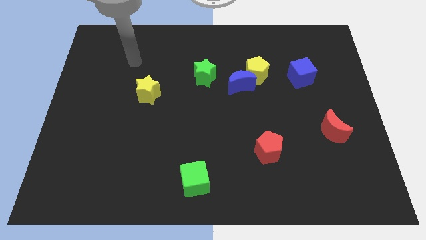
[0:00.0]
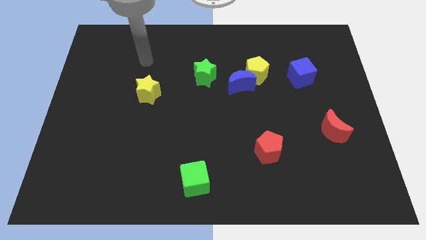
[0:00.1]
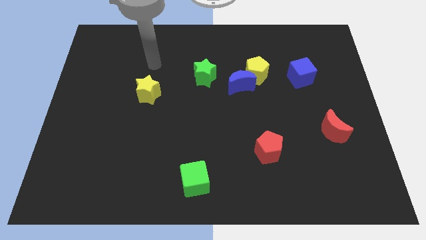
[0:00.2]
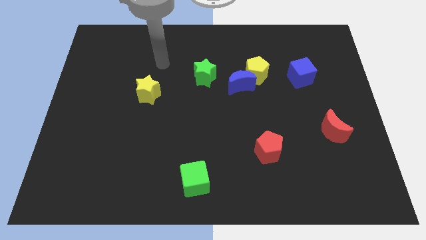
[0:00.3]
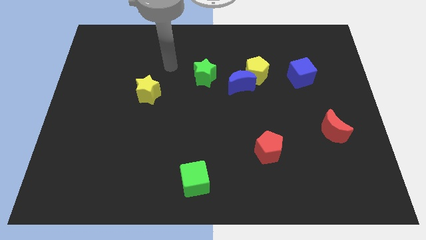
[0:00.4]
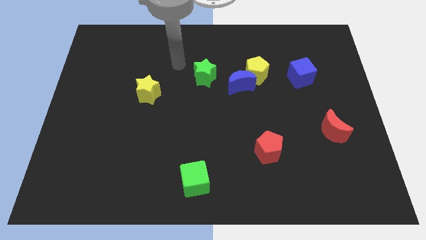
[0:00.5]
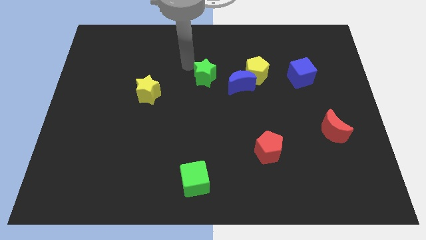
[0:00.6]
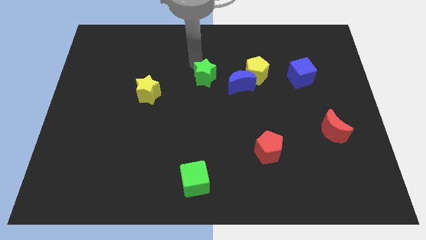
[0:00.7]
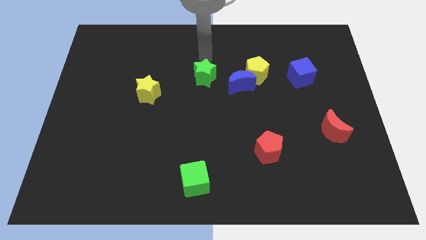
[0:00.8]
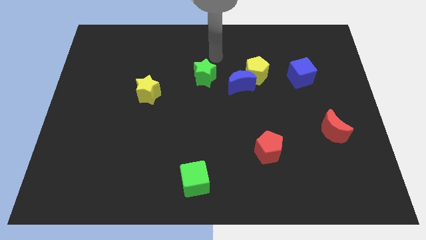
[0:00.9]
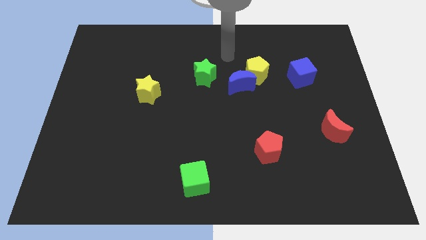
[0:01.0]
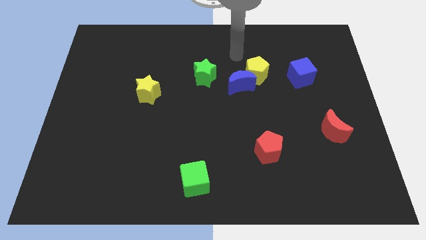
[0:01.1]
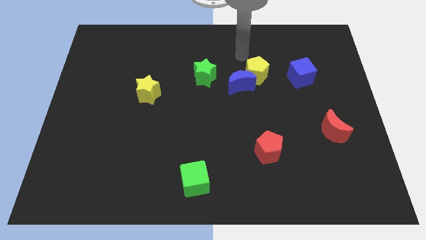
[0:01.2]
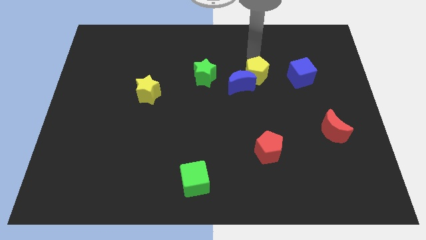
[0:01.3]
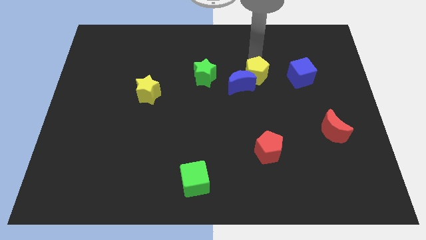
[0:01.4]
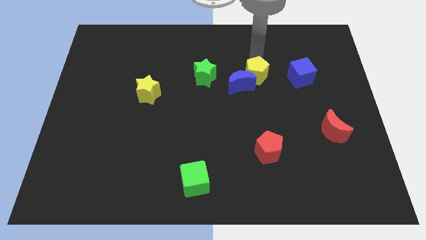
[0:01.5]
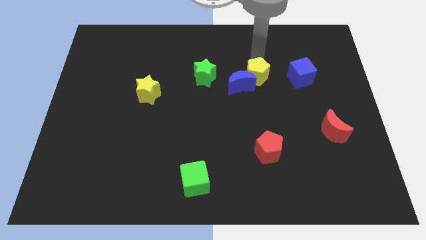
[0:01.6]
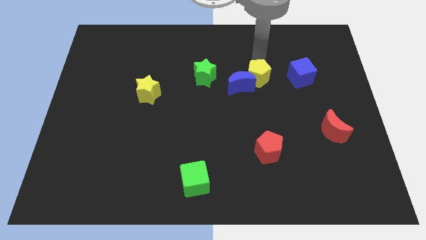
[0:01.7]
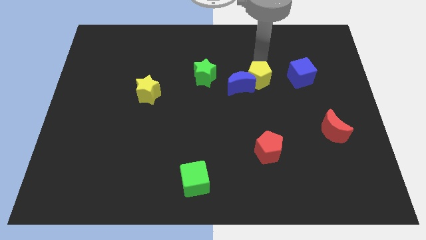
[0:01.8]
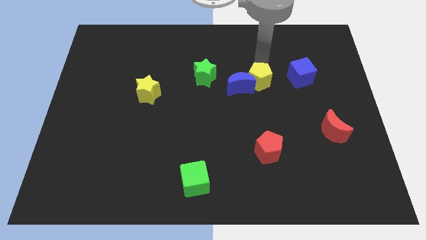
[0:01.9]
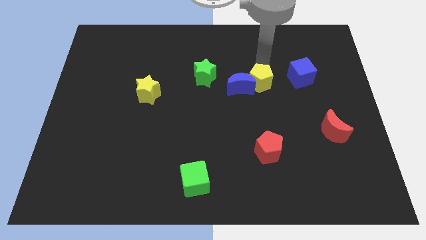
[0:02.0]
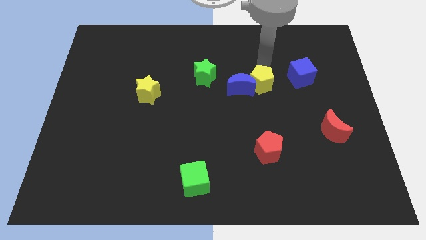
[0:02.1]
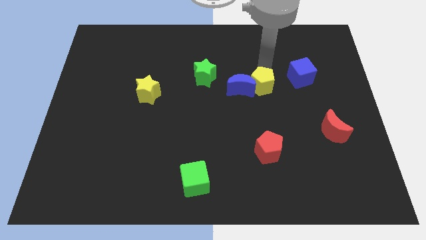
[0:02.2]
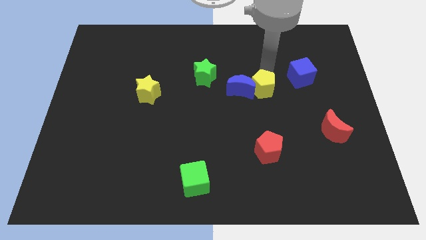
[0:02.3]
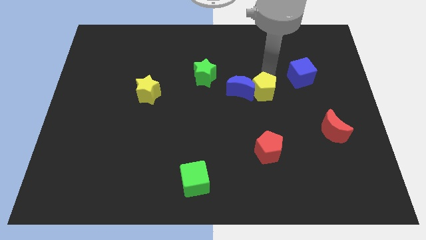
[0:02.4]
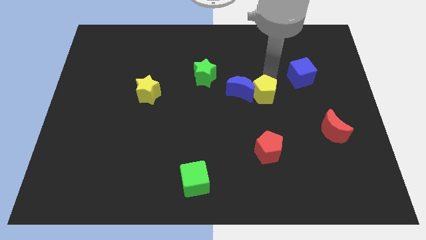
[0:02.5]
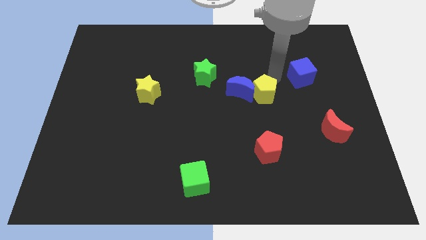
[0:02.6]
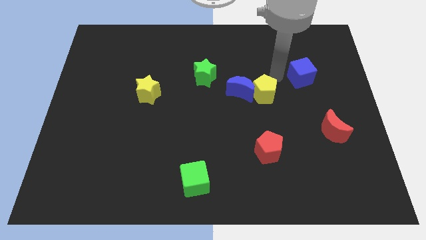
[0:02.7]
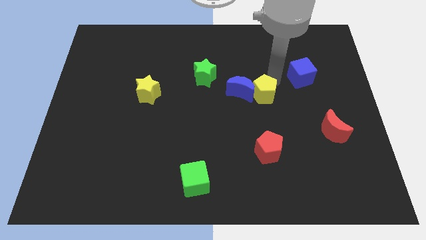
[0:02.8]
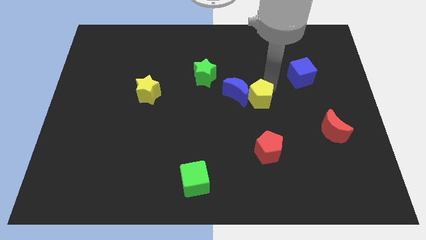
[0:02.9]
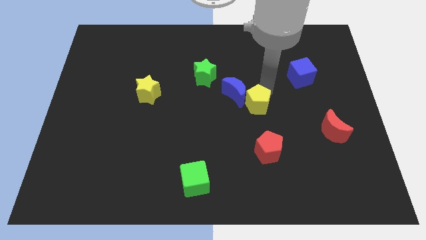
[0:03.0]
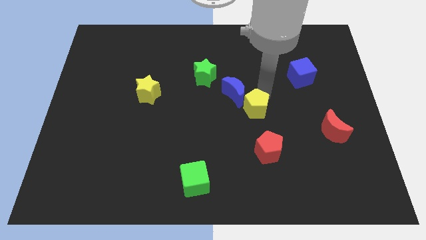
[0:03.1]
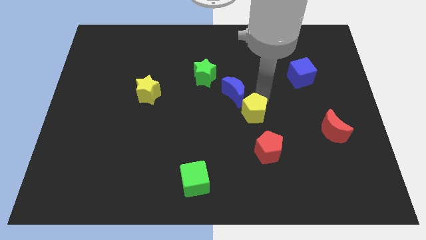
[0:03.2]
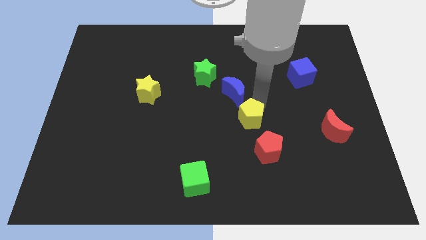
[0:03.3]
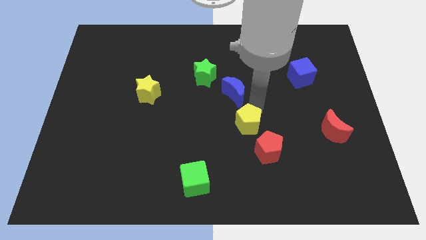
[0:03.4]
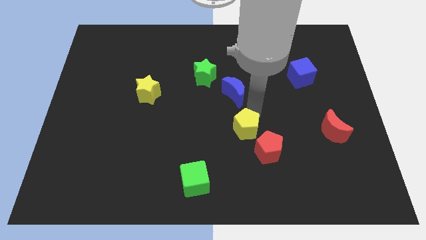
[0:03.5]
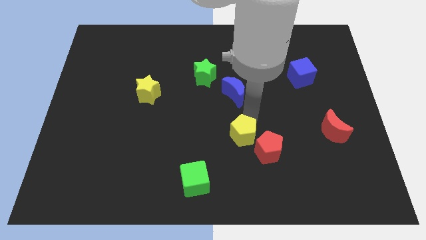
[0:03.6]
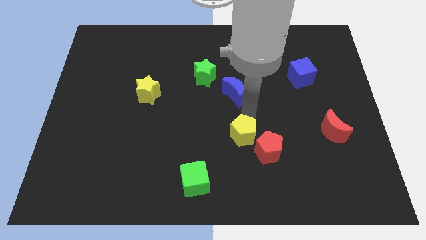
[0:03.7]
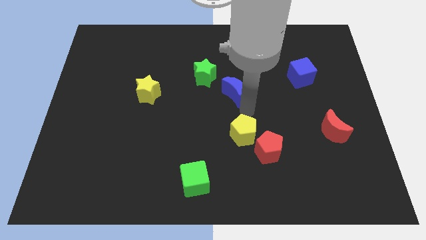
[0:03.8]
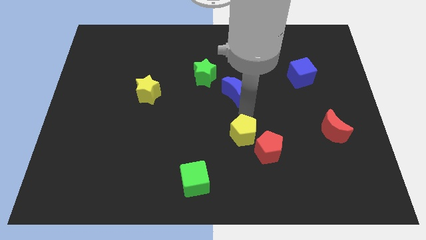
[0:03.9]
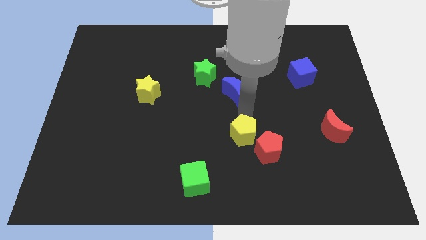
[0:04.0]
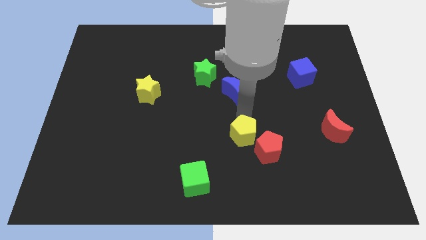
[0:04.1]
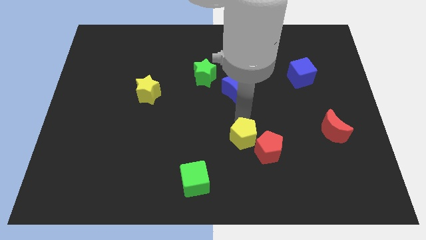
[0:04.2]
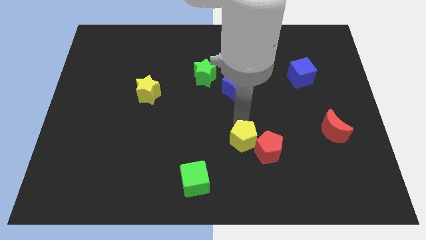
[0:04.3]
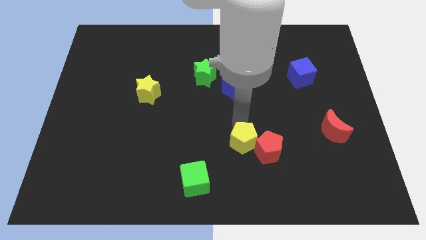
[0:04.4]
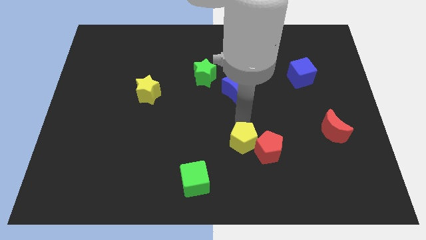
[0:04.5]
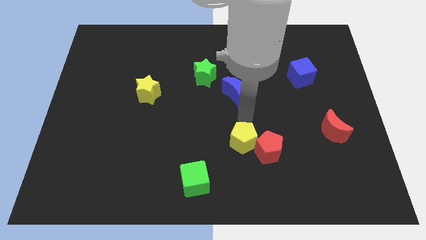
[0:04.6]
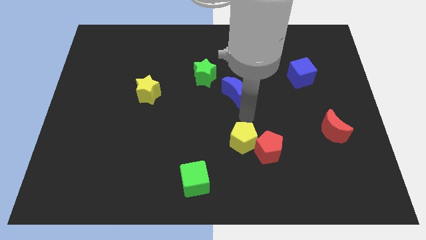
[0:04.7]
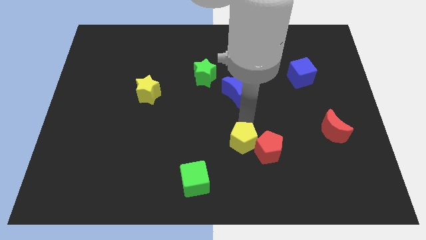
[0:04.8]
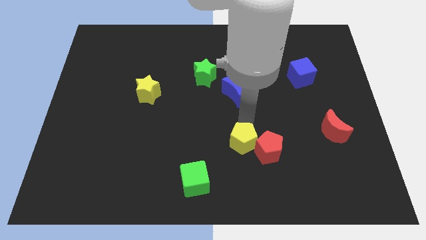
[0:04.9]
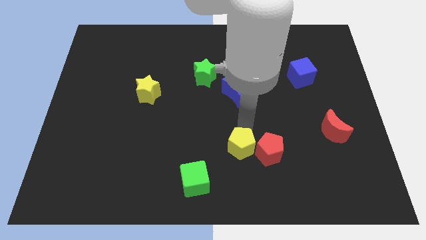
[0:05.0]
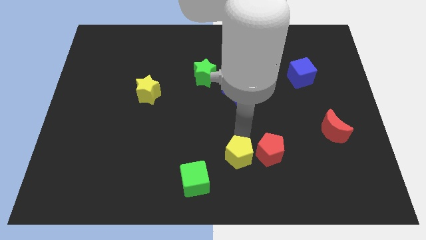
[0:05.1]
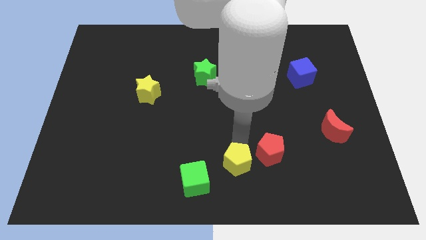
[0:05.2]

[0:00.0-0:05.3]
slide the yellow pentagon just right of the green cube

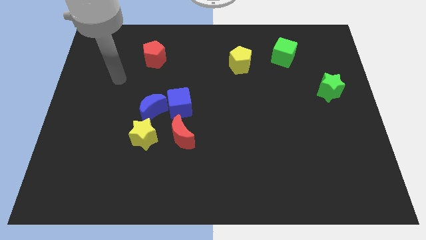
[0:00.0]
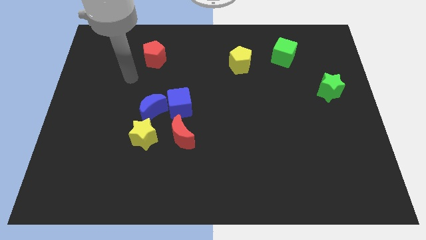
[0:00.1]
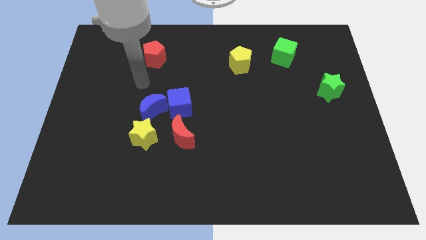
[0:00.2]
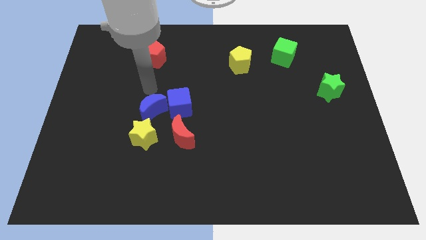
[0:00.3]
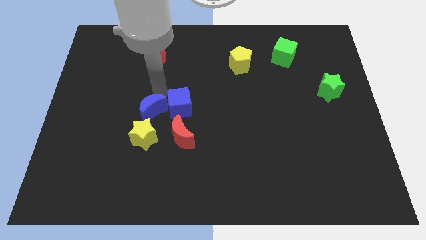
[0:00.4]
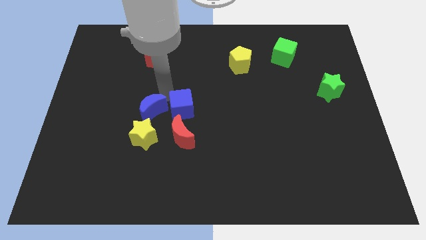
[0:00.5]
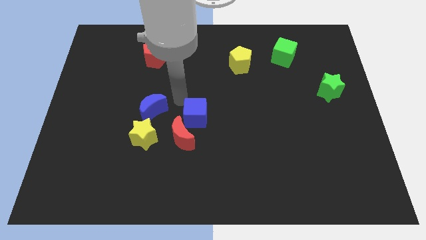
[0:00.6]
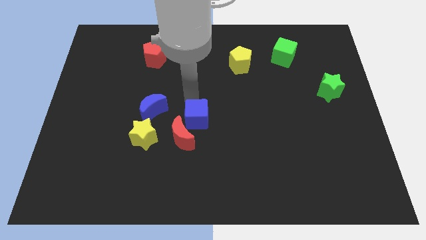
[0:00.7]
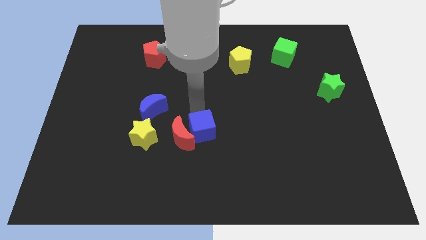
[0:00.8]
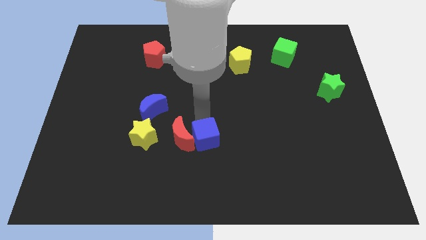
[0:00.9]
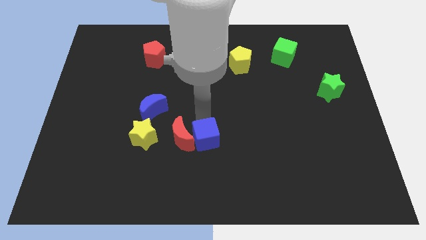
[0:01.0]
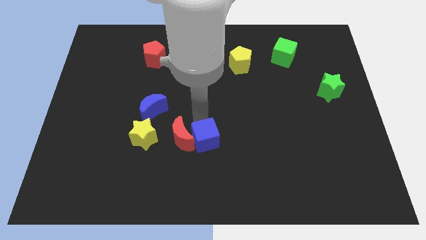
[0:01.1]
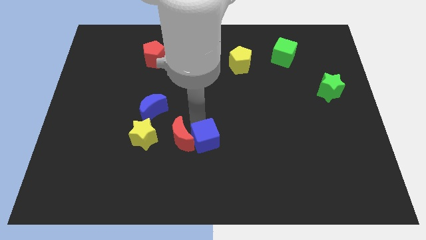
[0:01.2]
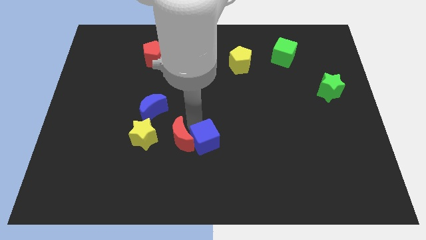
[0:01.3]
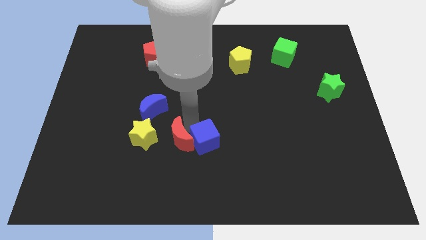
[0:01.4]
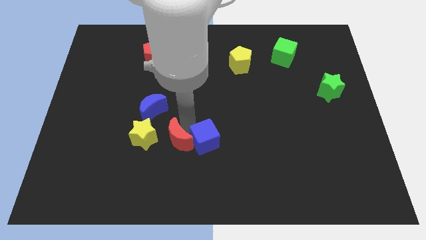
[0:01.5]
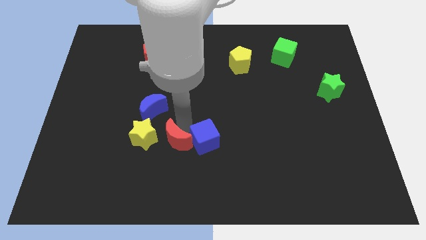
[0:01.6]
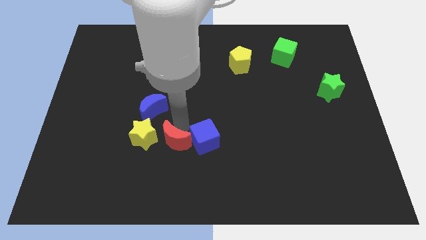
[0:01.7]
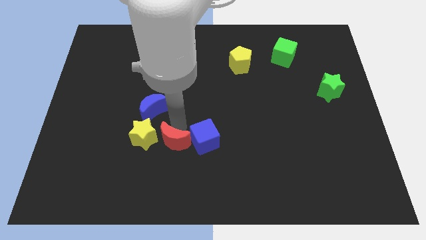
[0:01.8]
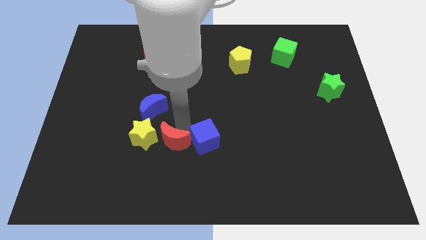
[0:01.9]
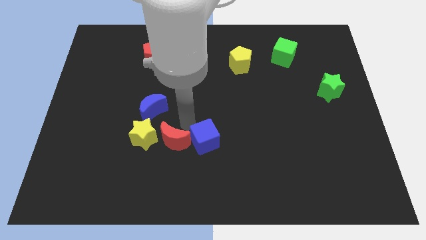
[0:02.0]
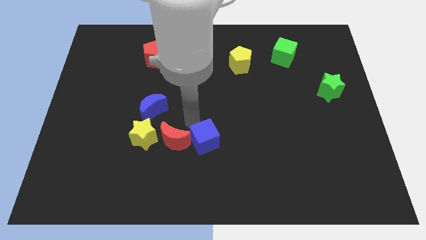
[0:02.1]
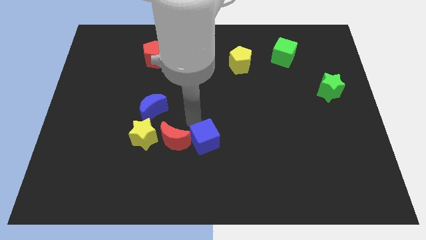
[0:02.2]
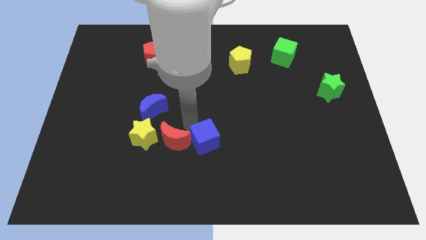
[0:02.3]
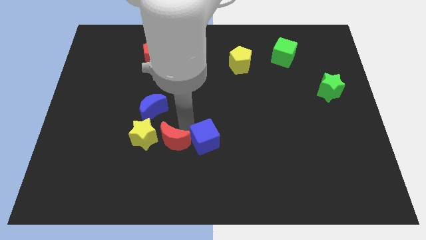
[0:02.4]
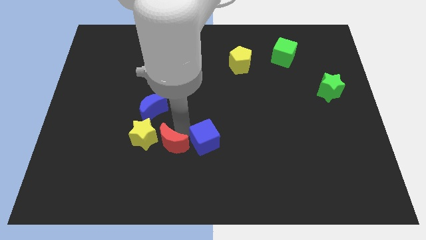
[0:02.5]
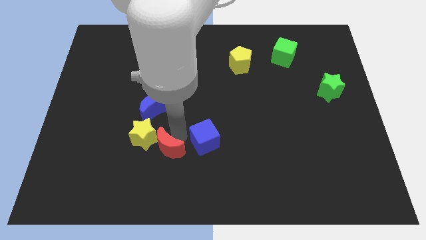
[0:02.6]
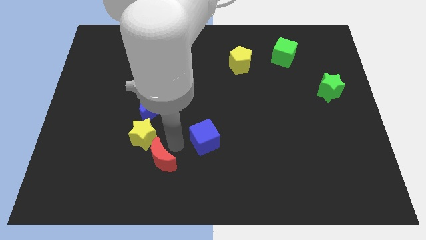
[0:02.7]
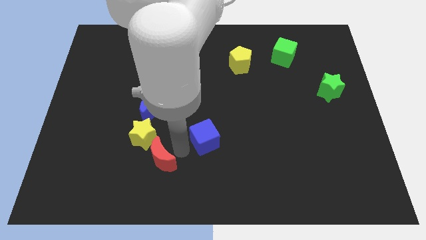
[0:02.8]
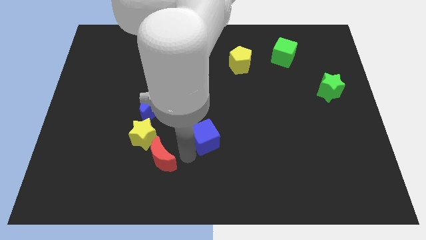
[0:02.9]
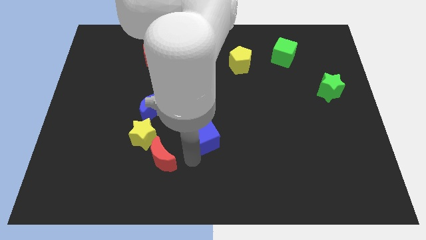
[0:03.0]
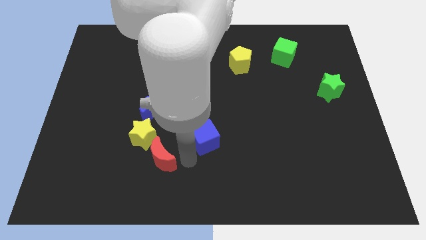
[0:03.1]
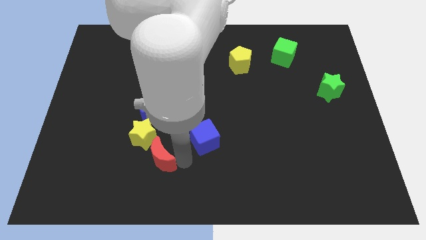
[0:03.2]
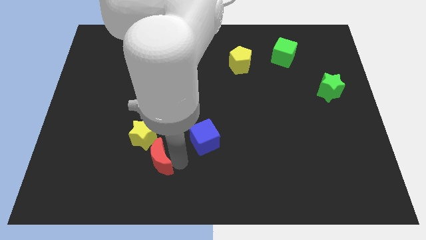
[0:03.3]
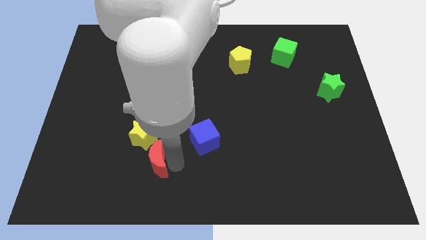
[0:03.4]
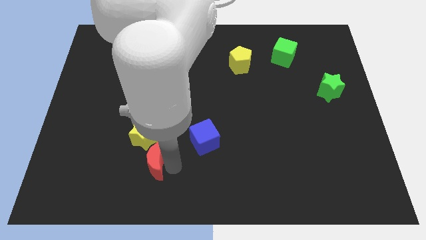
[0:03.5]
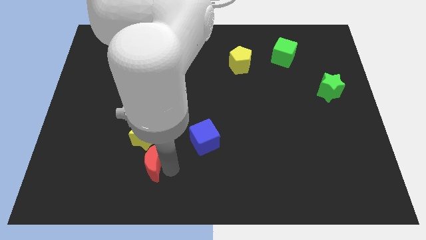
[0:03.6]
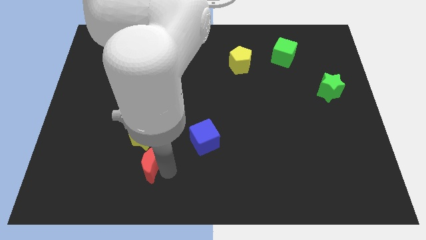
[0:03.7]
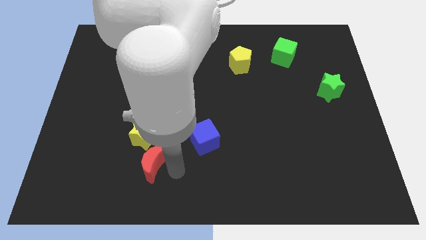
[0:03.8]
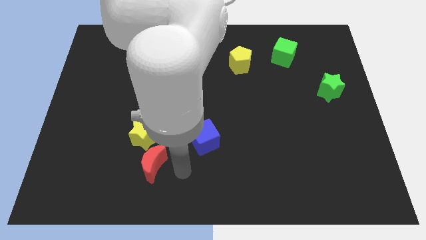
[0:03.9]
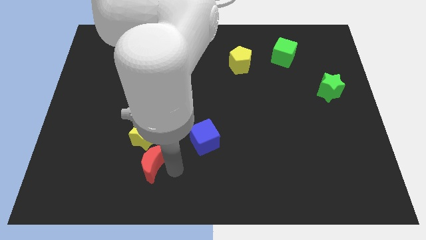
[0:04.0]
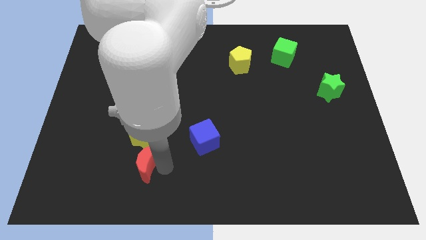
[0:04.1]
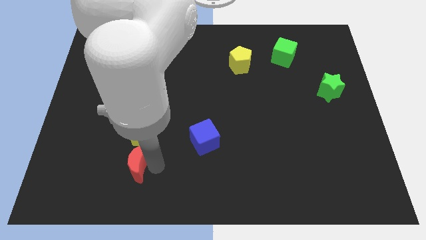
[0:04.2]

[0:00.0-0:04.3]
slide the red moon to the bottom left side of the yellow star
